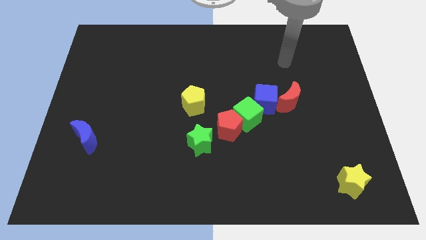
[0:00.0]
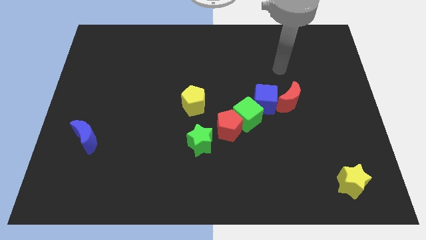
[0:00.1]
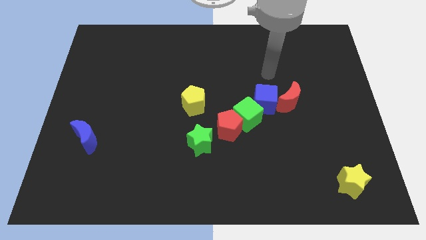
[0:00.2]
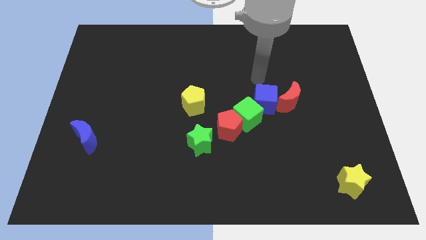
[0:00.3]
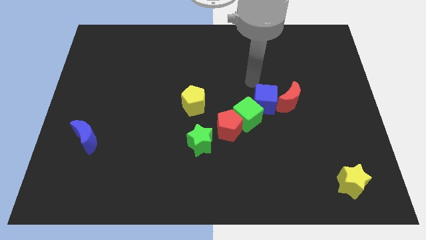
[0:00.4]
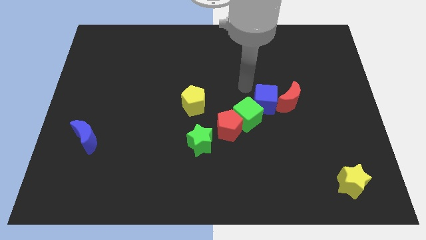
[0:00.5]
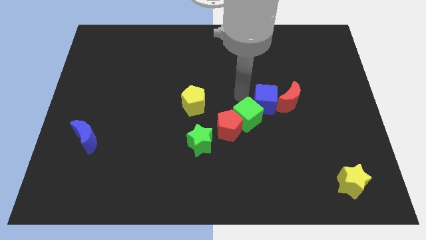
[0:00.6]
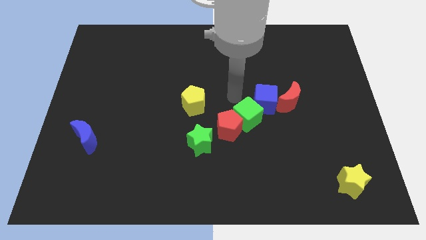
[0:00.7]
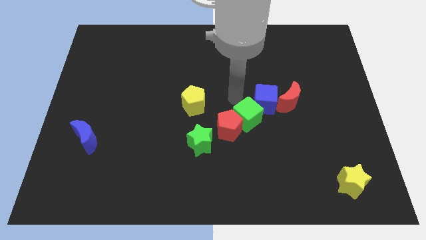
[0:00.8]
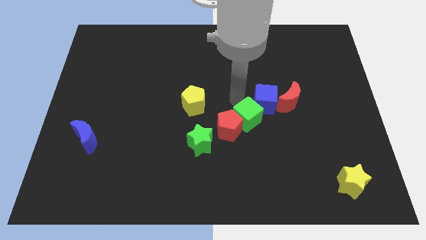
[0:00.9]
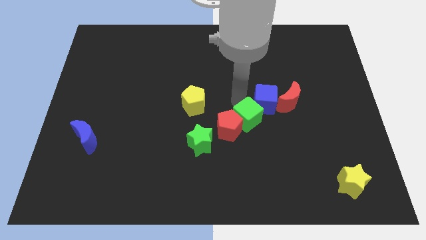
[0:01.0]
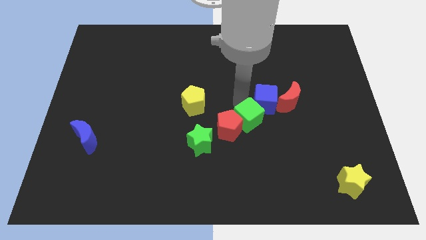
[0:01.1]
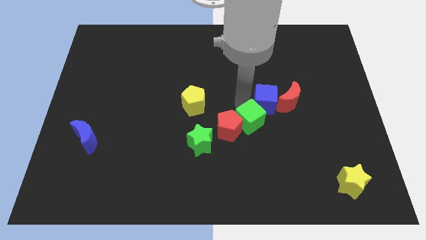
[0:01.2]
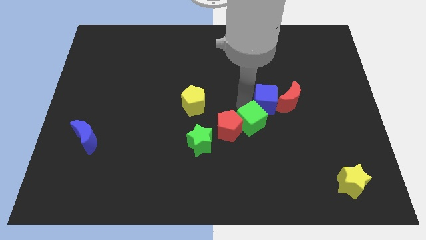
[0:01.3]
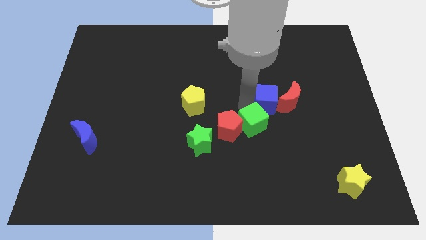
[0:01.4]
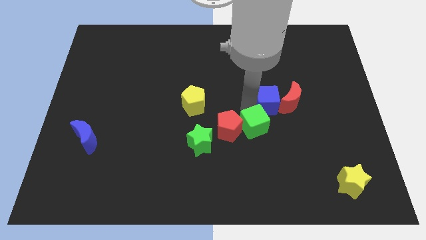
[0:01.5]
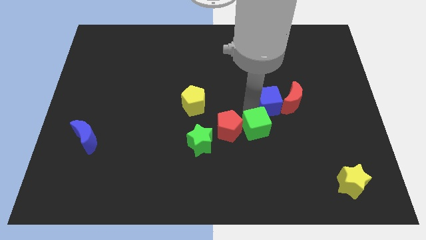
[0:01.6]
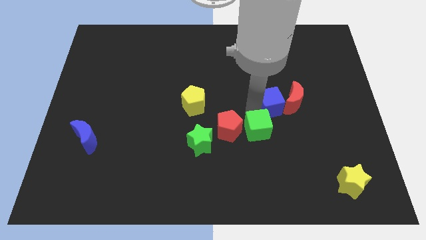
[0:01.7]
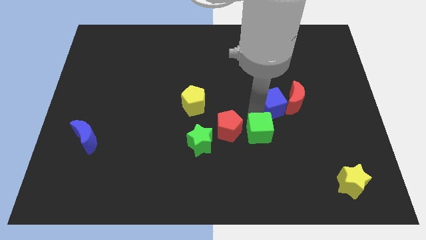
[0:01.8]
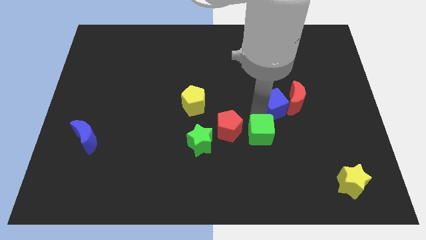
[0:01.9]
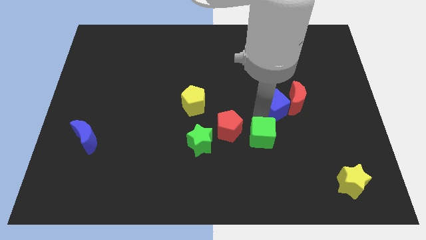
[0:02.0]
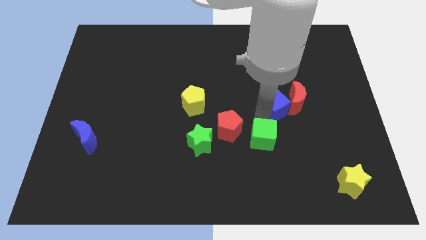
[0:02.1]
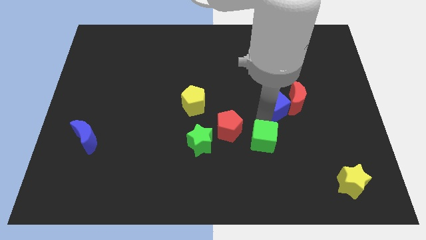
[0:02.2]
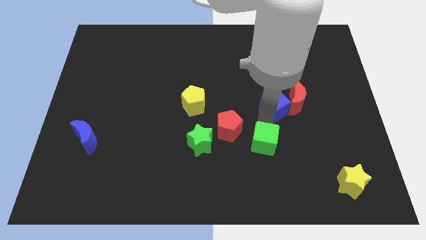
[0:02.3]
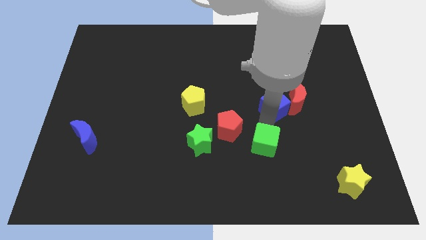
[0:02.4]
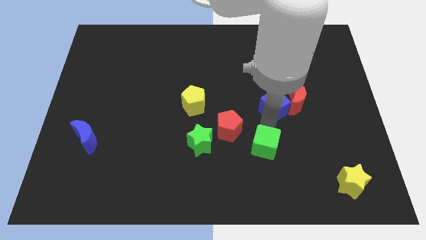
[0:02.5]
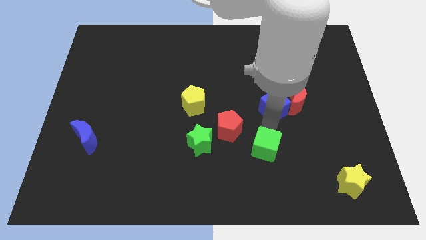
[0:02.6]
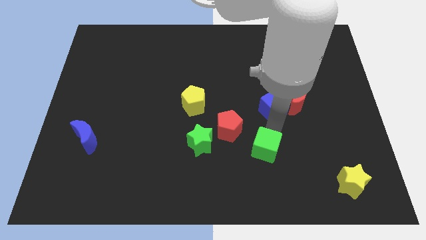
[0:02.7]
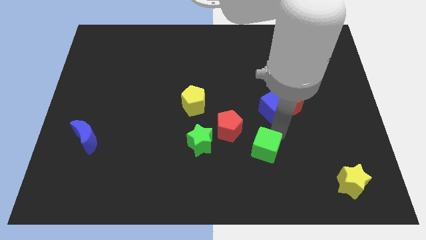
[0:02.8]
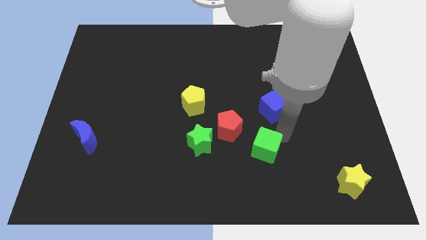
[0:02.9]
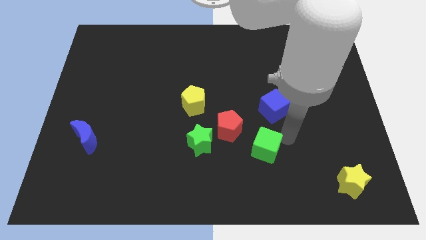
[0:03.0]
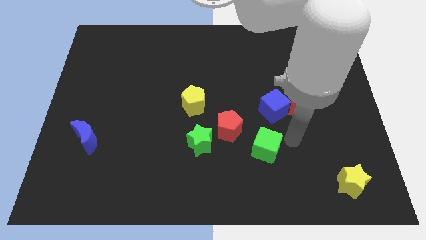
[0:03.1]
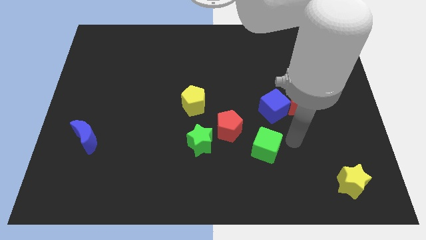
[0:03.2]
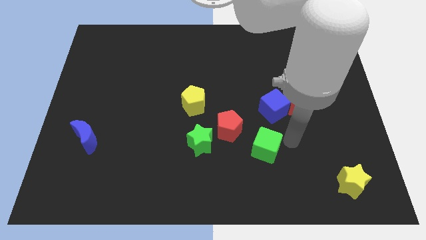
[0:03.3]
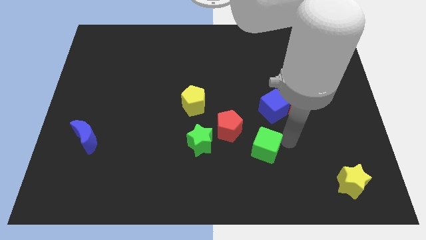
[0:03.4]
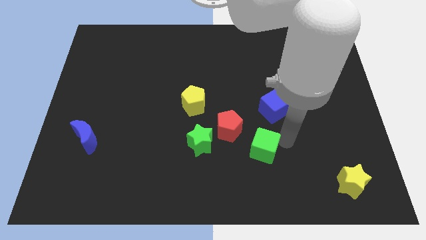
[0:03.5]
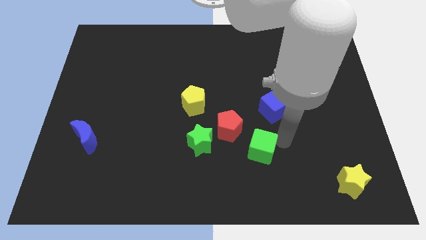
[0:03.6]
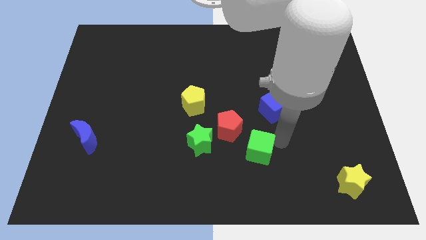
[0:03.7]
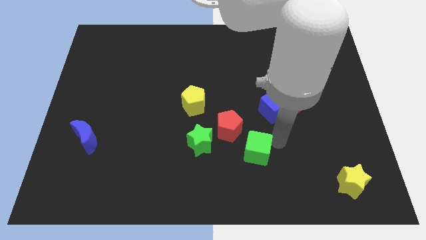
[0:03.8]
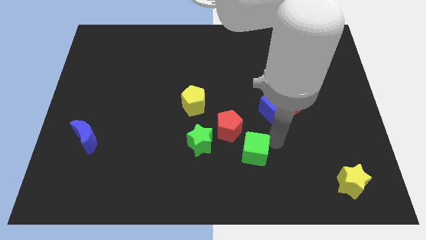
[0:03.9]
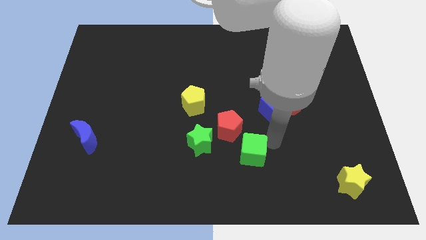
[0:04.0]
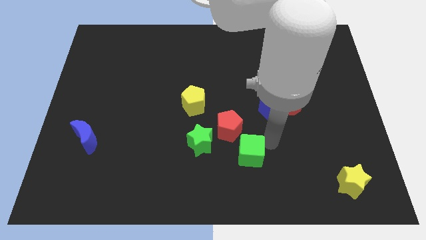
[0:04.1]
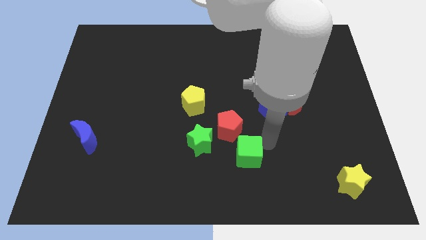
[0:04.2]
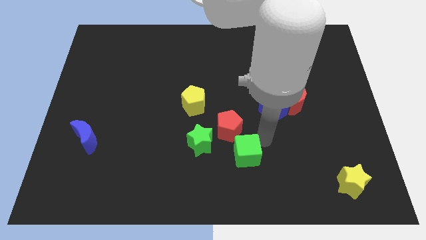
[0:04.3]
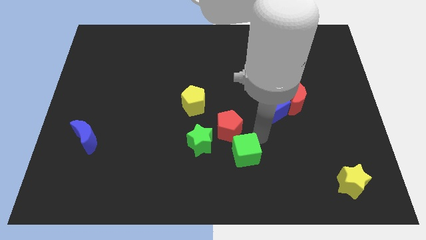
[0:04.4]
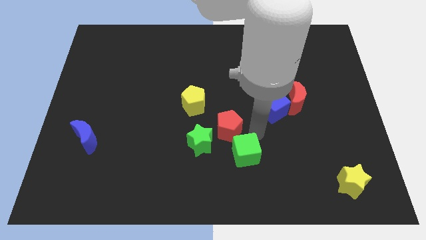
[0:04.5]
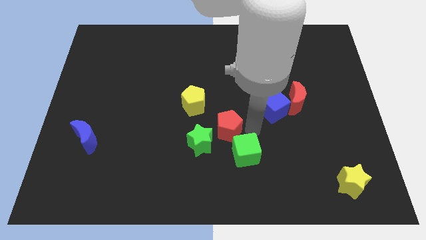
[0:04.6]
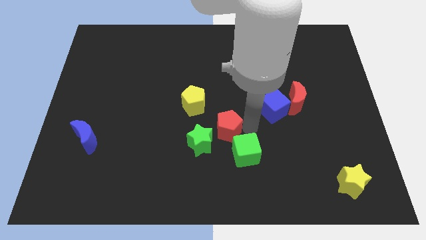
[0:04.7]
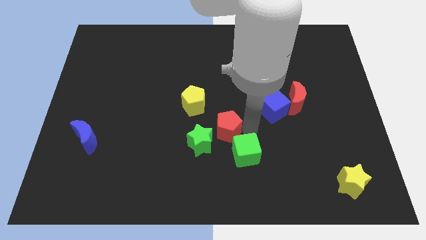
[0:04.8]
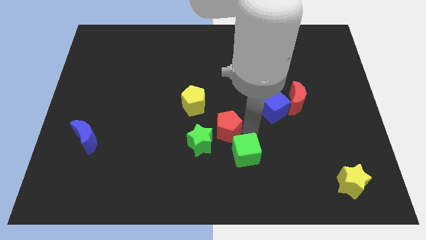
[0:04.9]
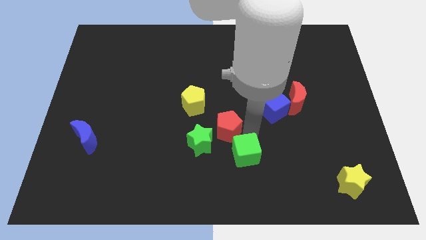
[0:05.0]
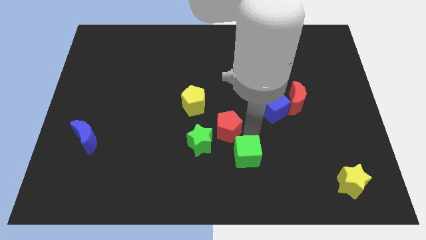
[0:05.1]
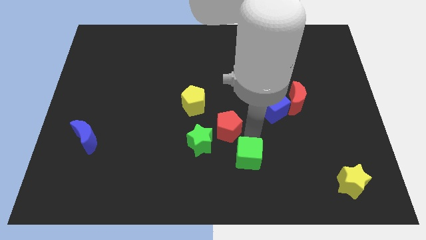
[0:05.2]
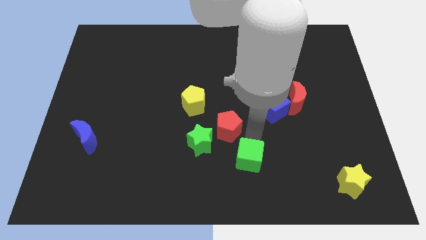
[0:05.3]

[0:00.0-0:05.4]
separate the green cube from the red pentagon and blue cube

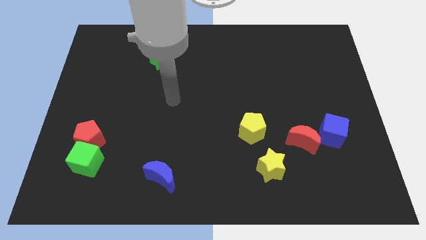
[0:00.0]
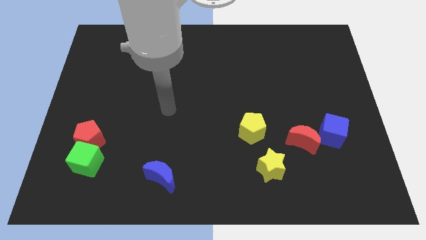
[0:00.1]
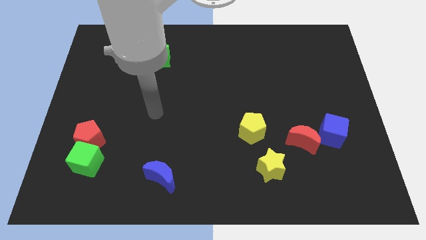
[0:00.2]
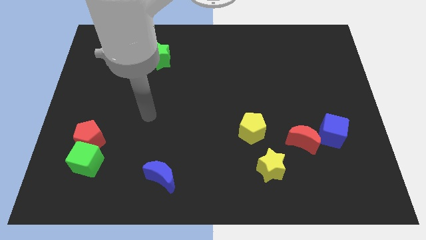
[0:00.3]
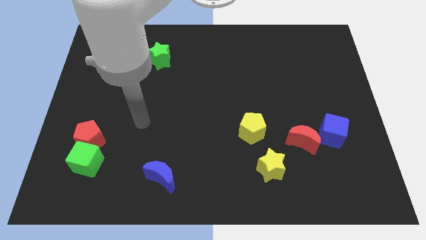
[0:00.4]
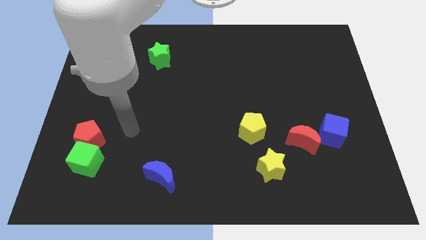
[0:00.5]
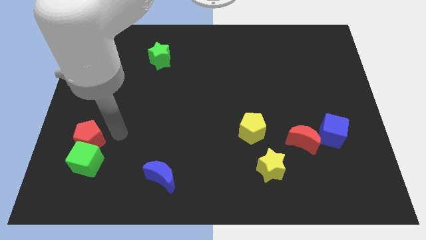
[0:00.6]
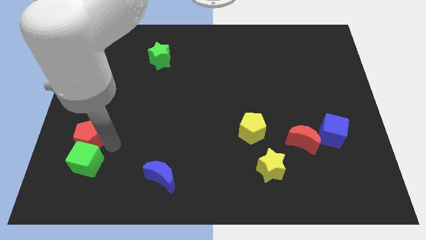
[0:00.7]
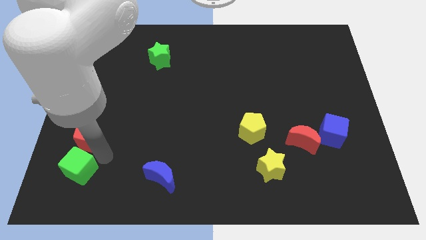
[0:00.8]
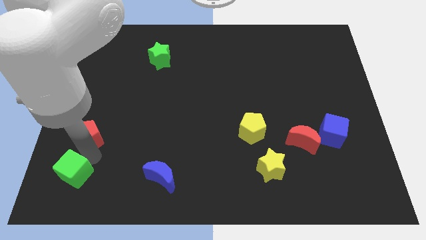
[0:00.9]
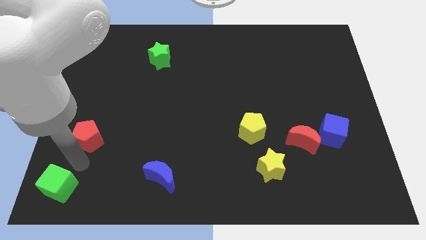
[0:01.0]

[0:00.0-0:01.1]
move the red pentagon away from the green cube

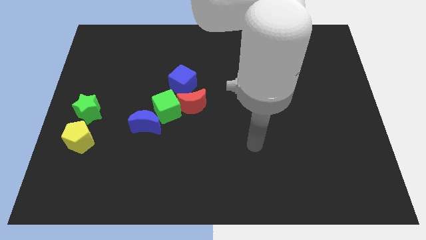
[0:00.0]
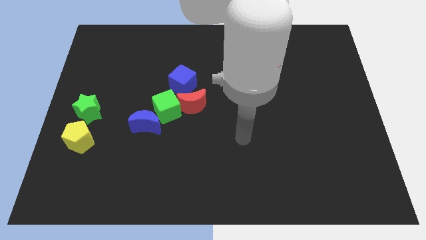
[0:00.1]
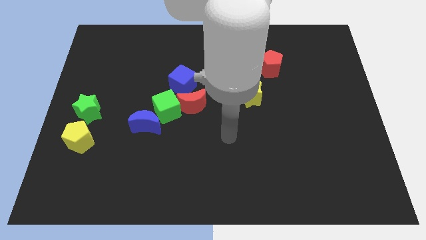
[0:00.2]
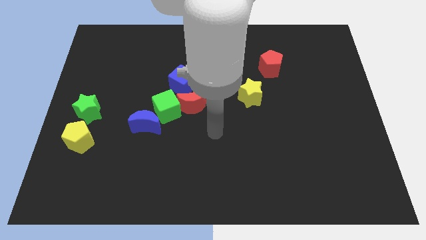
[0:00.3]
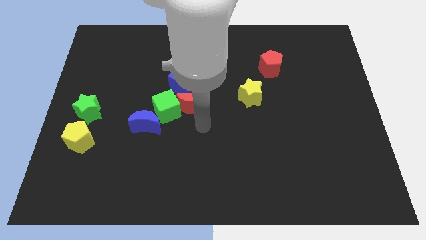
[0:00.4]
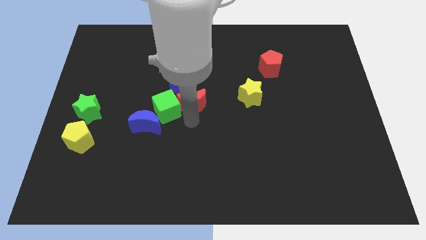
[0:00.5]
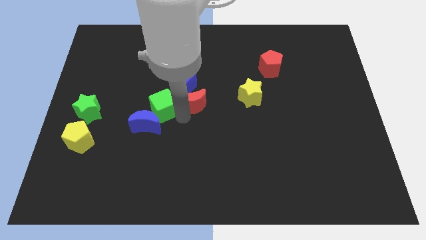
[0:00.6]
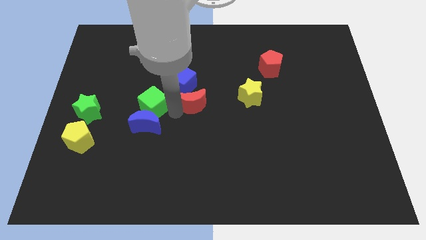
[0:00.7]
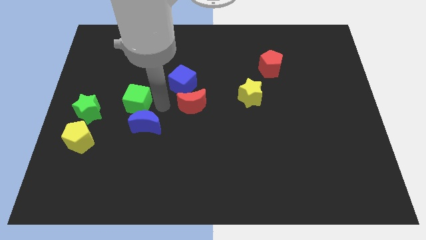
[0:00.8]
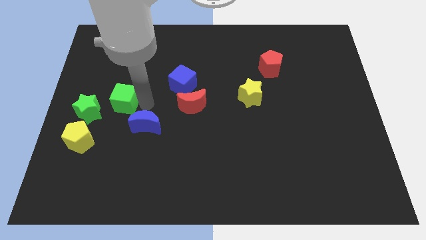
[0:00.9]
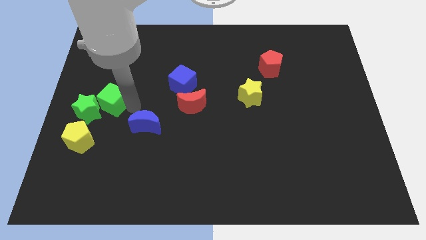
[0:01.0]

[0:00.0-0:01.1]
separate the blue moon from the green cube

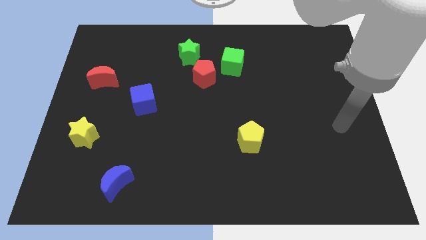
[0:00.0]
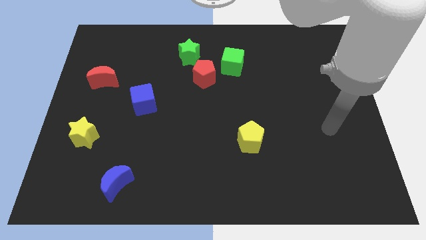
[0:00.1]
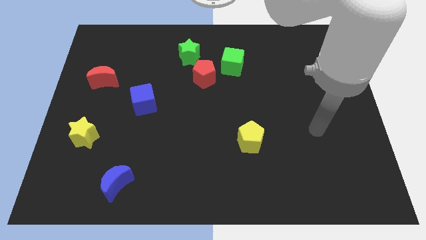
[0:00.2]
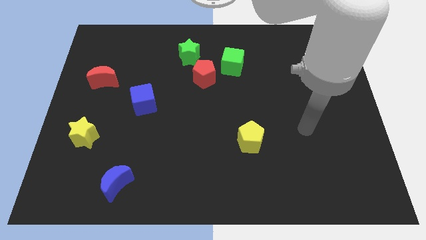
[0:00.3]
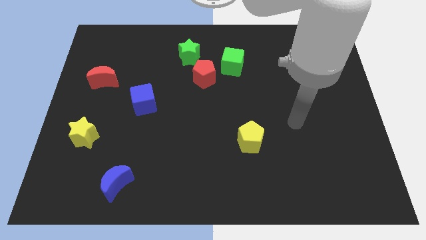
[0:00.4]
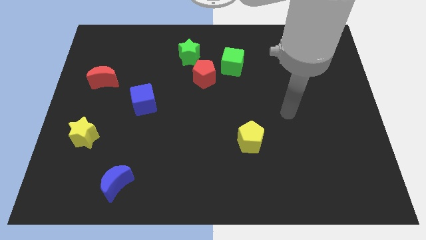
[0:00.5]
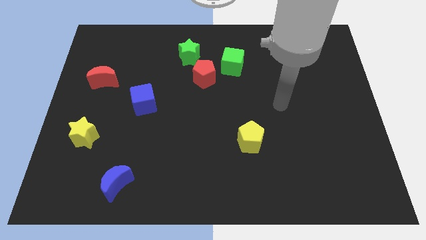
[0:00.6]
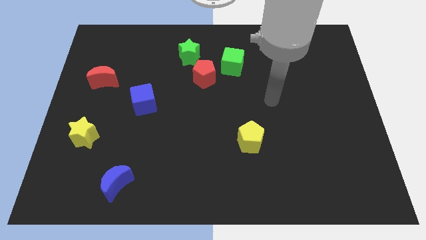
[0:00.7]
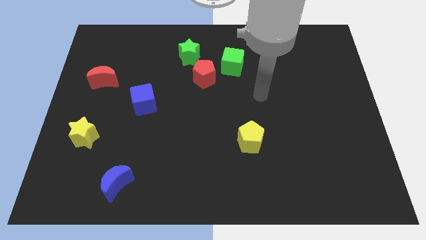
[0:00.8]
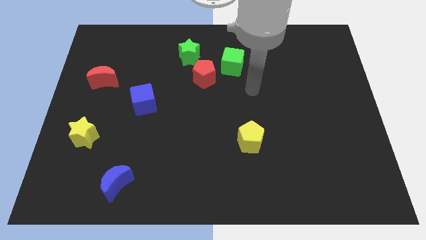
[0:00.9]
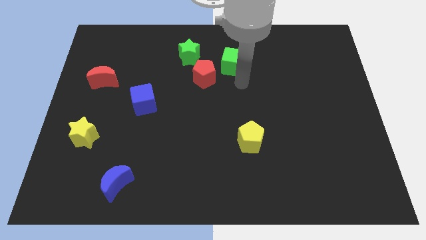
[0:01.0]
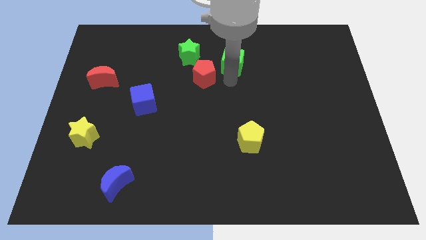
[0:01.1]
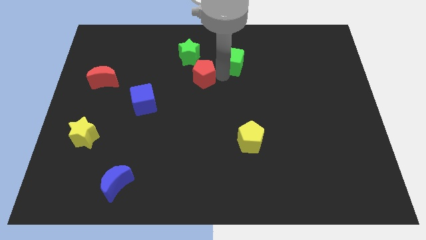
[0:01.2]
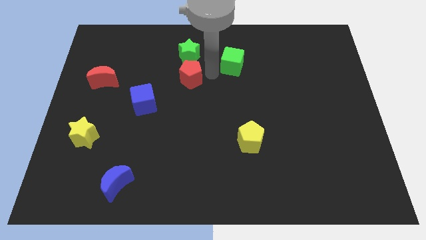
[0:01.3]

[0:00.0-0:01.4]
separate the green cube from the red pentagon

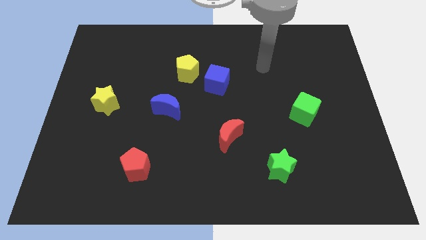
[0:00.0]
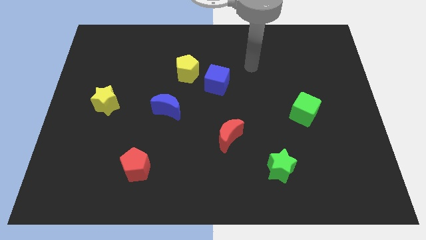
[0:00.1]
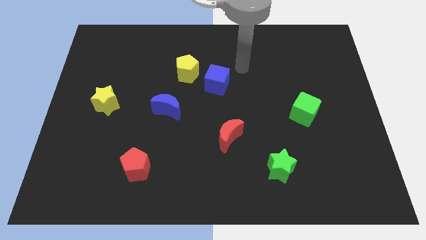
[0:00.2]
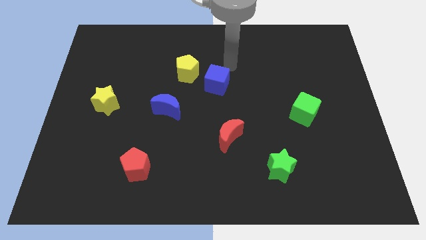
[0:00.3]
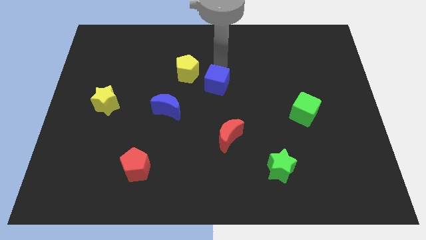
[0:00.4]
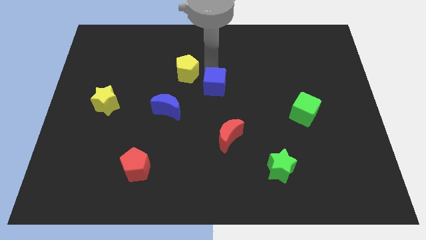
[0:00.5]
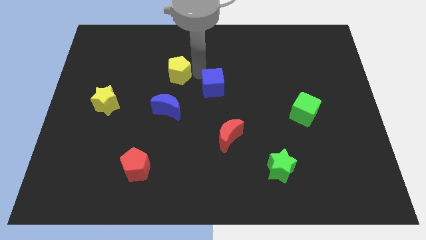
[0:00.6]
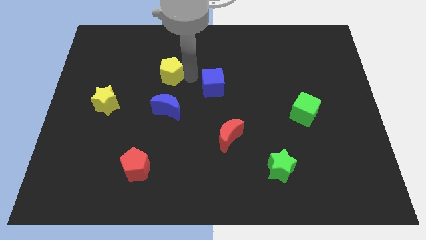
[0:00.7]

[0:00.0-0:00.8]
pull the blue cube apart from the yellow pentagon
